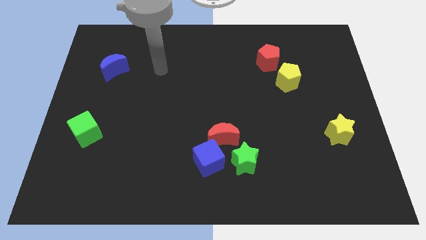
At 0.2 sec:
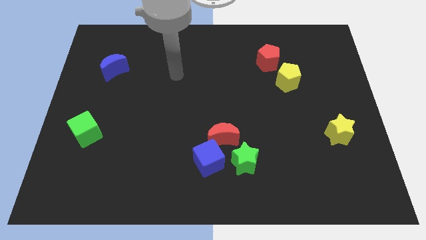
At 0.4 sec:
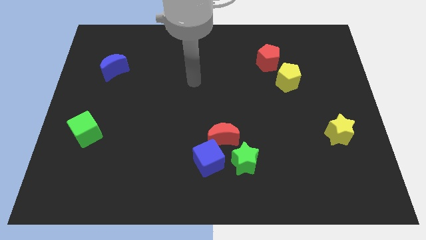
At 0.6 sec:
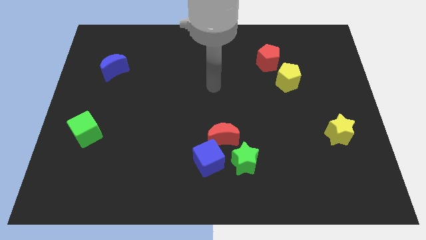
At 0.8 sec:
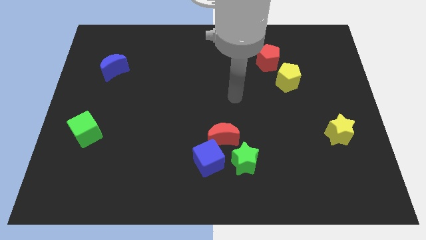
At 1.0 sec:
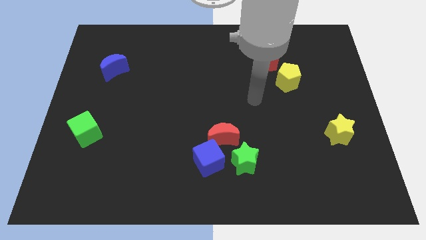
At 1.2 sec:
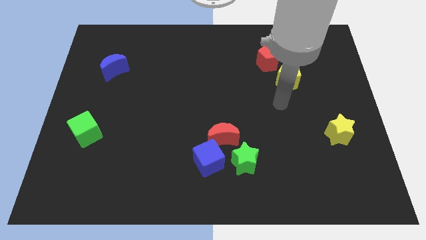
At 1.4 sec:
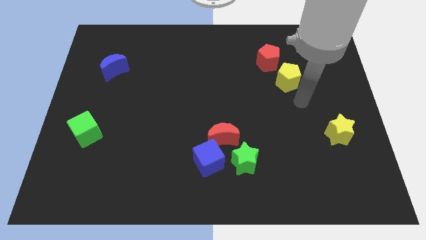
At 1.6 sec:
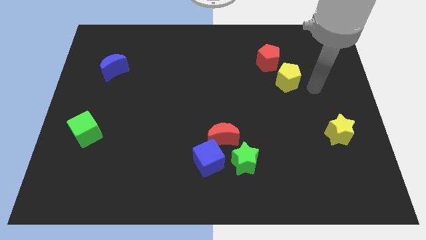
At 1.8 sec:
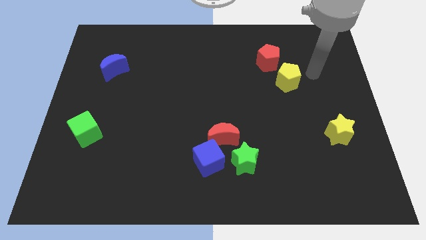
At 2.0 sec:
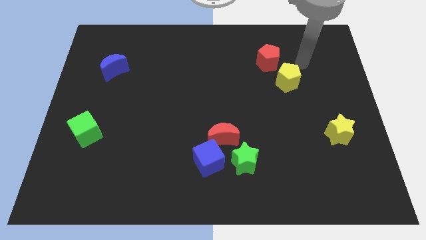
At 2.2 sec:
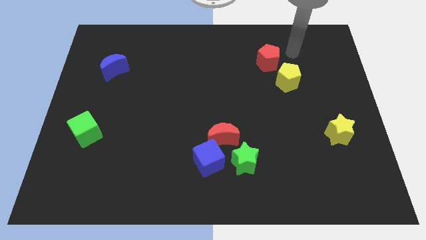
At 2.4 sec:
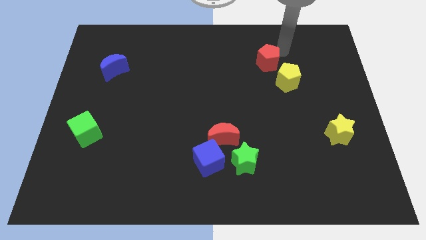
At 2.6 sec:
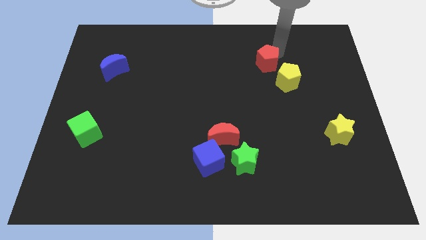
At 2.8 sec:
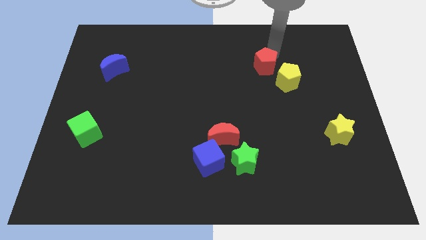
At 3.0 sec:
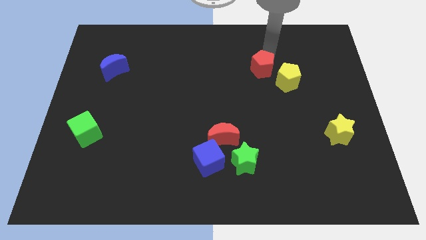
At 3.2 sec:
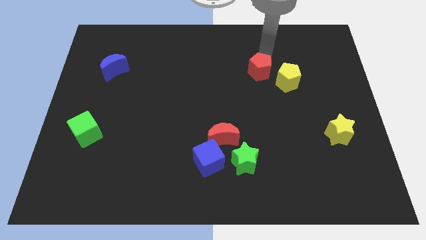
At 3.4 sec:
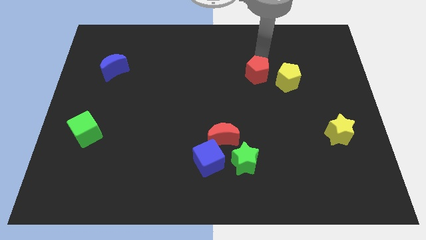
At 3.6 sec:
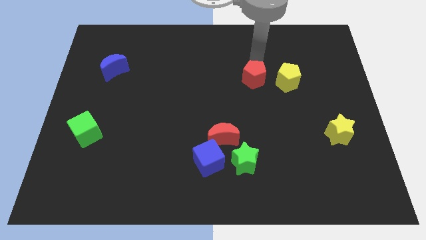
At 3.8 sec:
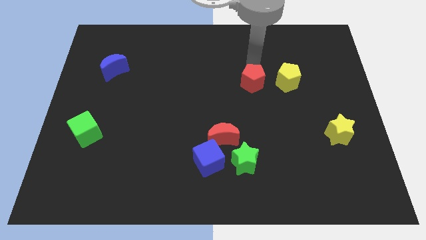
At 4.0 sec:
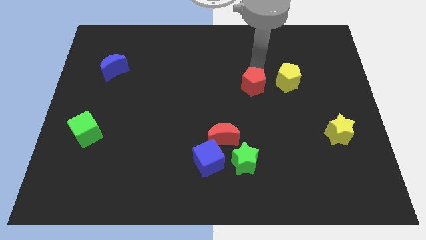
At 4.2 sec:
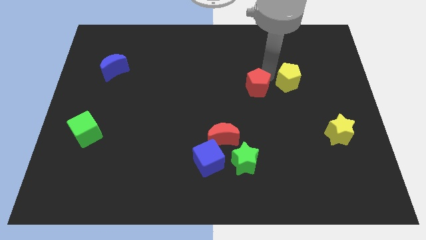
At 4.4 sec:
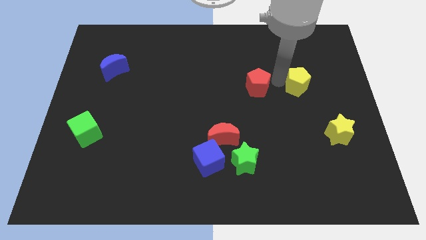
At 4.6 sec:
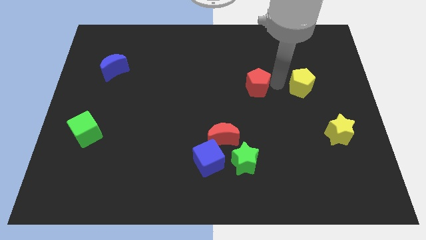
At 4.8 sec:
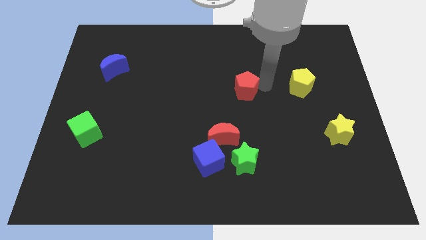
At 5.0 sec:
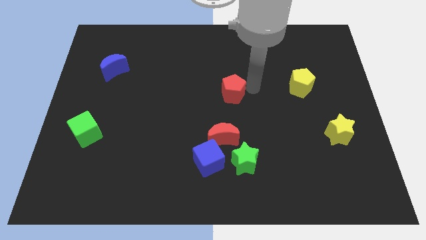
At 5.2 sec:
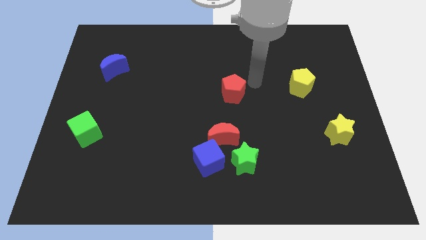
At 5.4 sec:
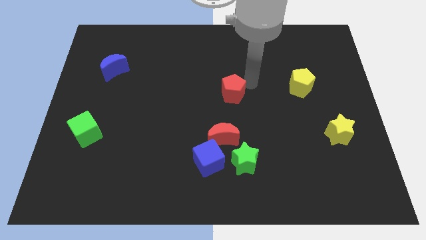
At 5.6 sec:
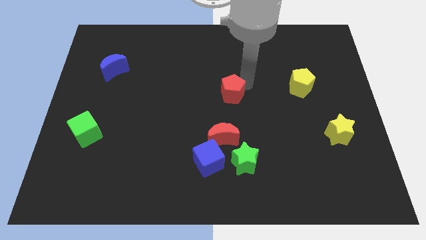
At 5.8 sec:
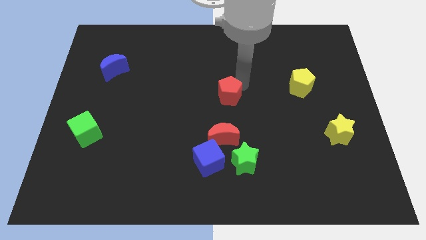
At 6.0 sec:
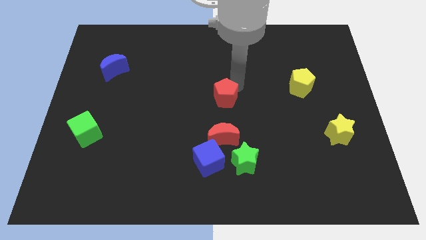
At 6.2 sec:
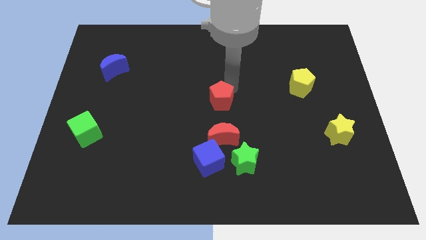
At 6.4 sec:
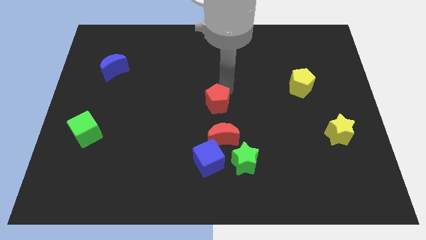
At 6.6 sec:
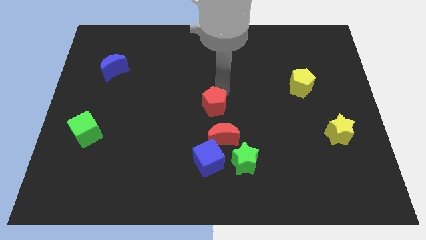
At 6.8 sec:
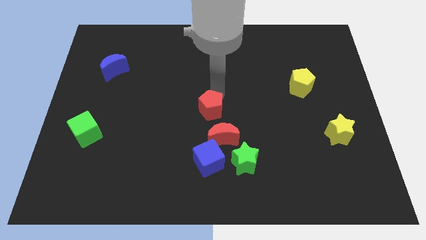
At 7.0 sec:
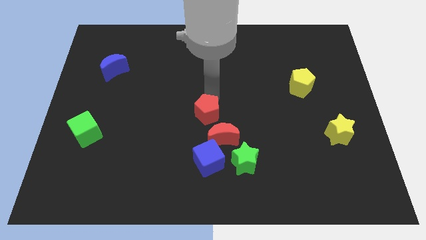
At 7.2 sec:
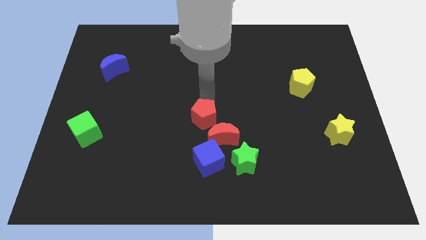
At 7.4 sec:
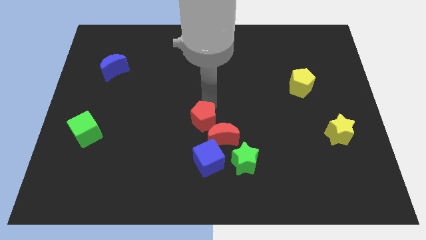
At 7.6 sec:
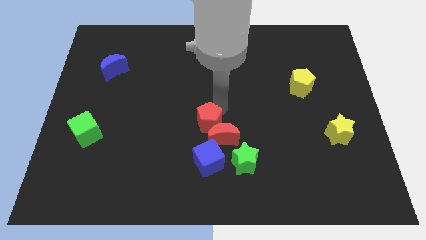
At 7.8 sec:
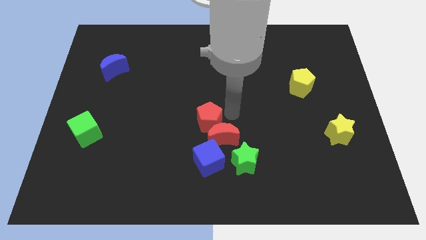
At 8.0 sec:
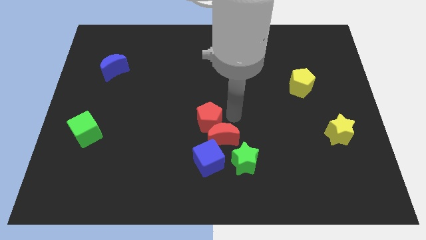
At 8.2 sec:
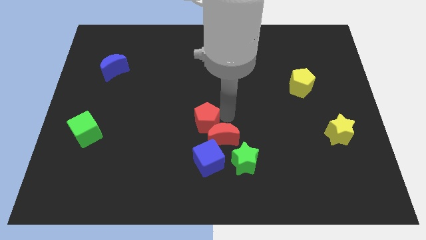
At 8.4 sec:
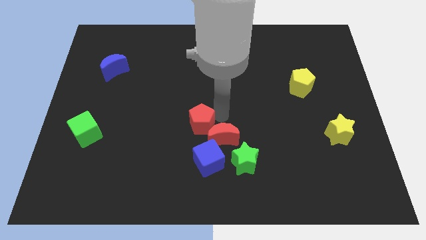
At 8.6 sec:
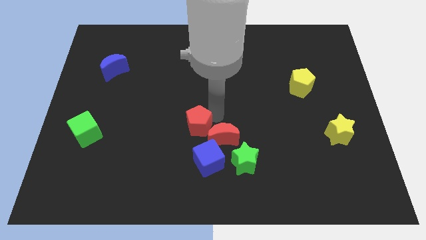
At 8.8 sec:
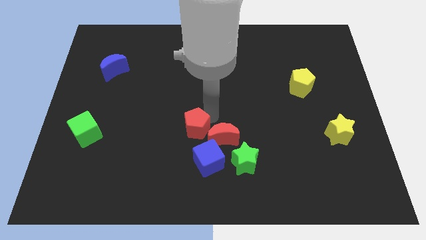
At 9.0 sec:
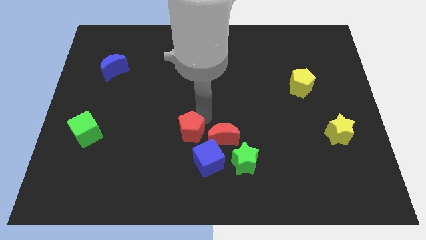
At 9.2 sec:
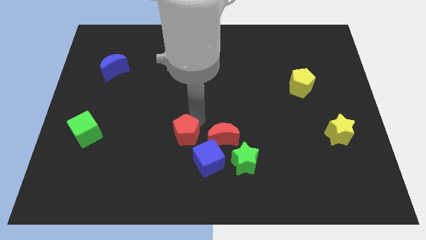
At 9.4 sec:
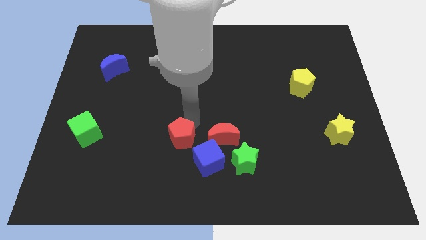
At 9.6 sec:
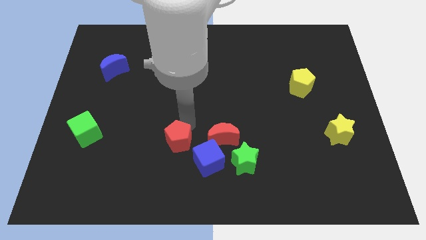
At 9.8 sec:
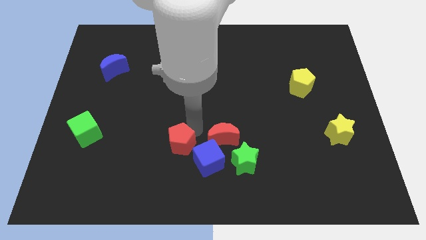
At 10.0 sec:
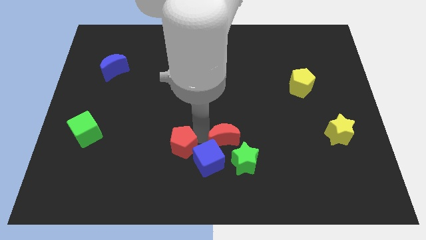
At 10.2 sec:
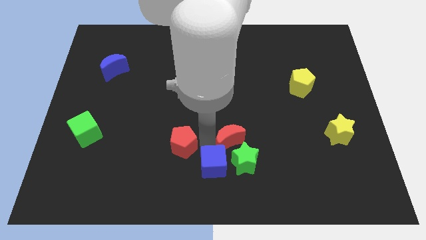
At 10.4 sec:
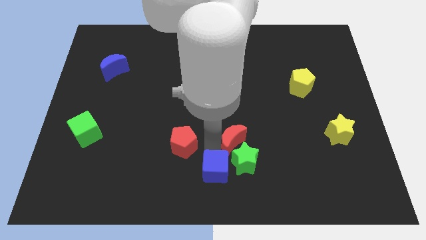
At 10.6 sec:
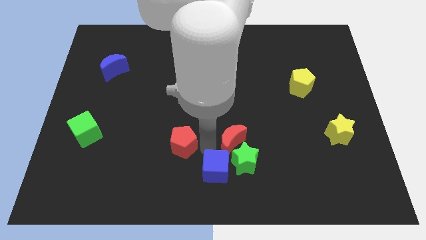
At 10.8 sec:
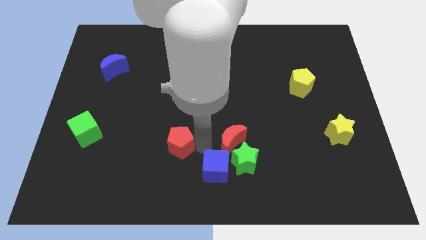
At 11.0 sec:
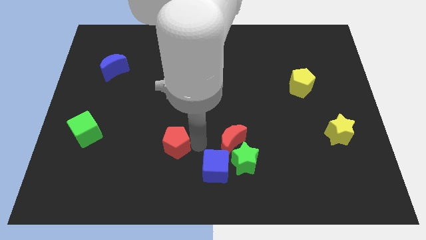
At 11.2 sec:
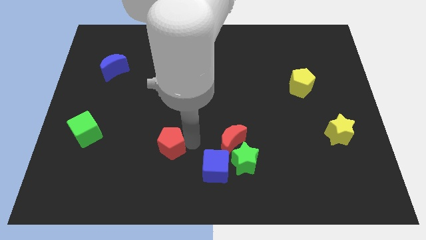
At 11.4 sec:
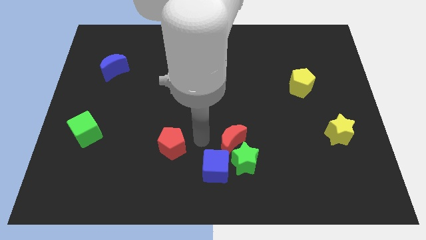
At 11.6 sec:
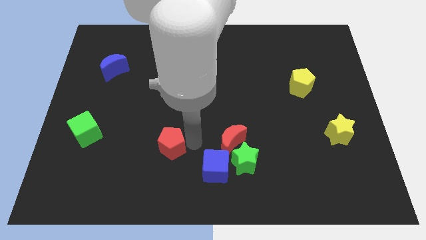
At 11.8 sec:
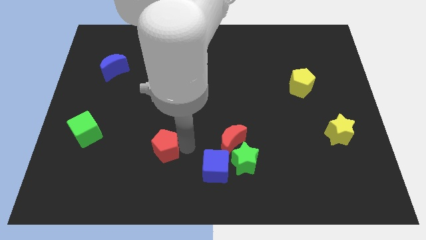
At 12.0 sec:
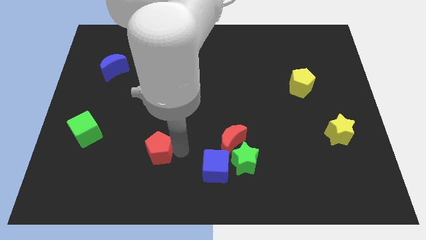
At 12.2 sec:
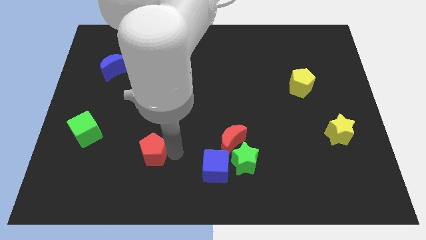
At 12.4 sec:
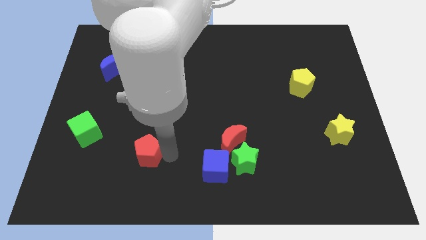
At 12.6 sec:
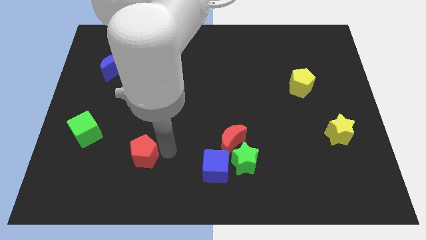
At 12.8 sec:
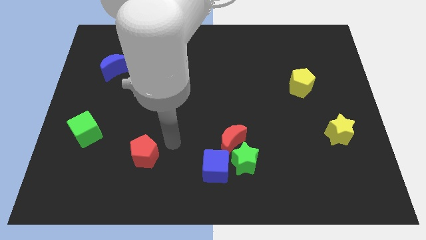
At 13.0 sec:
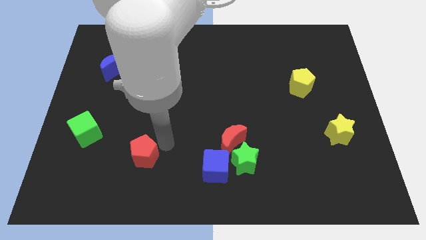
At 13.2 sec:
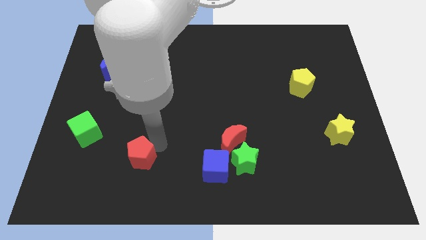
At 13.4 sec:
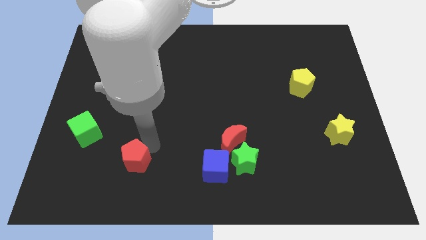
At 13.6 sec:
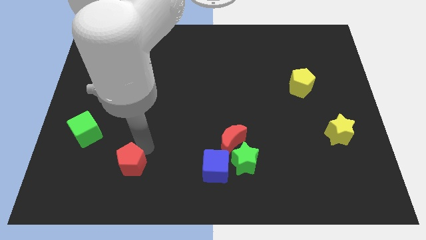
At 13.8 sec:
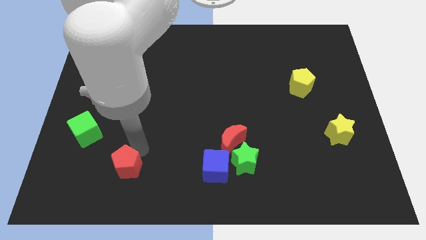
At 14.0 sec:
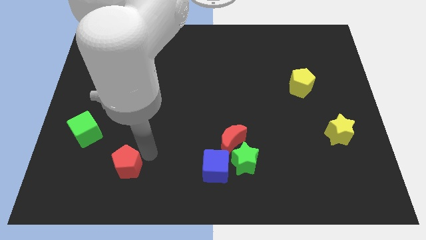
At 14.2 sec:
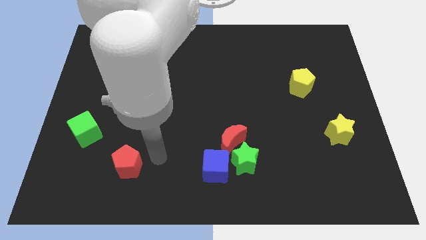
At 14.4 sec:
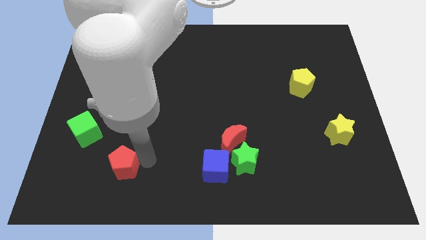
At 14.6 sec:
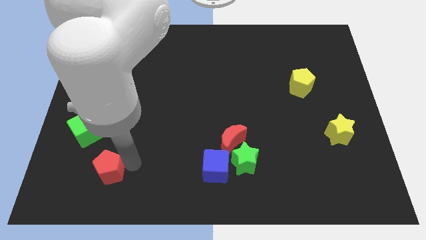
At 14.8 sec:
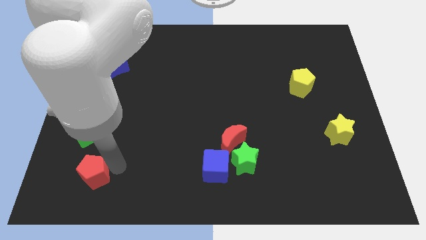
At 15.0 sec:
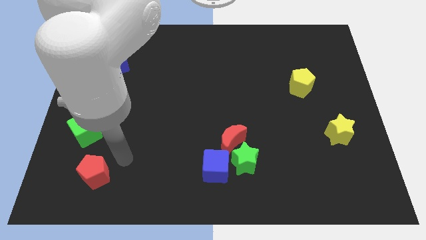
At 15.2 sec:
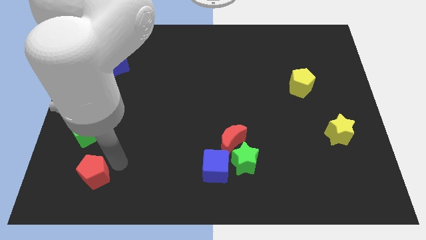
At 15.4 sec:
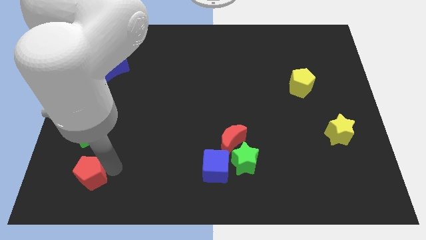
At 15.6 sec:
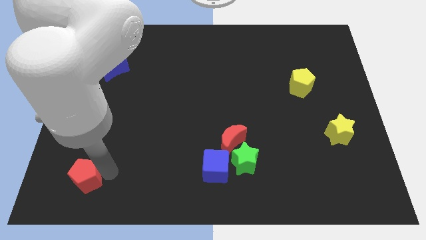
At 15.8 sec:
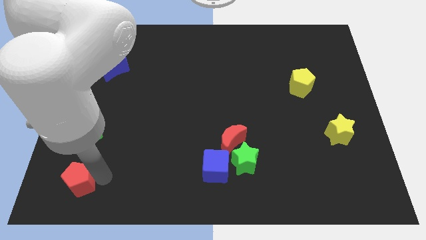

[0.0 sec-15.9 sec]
push the red pentagon to the bottom left corner
